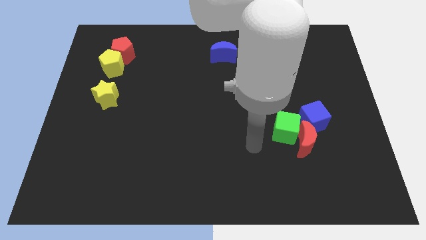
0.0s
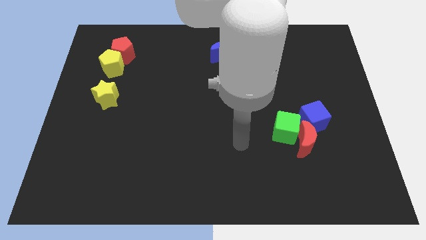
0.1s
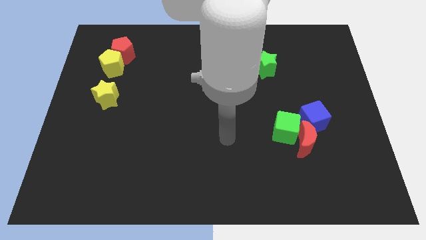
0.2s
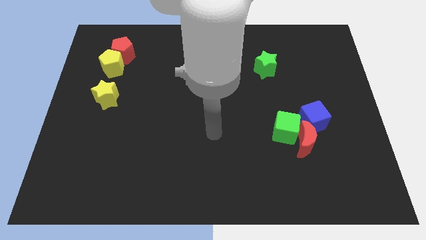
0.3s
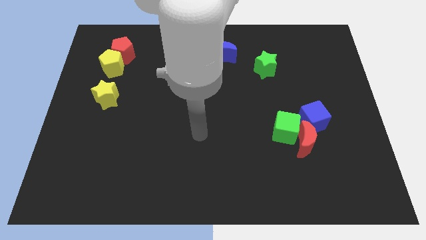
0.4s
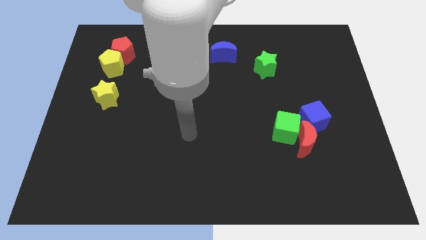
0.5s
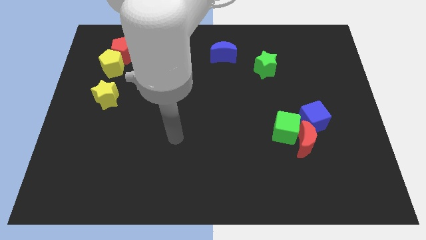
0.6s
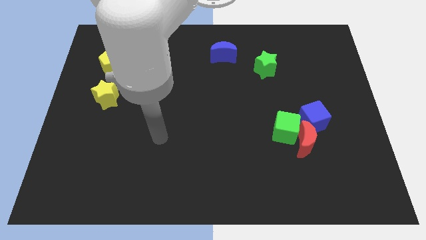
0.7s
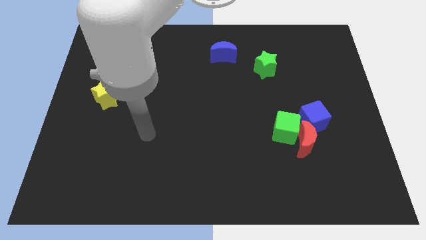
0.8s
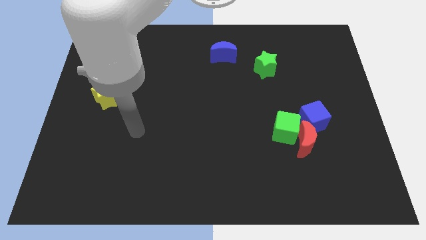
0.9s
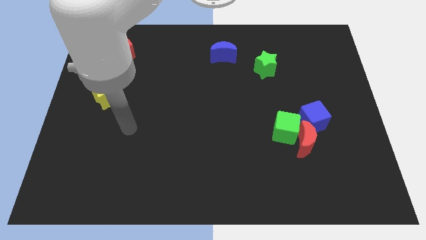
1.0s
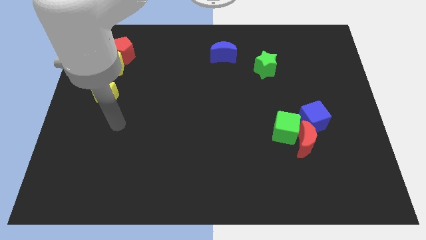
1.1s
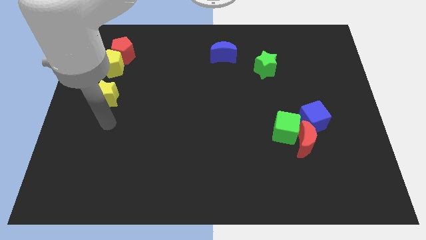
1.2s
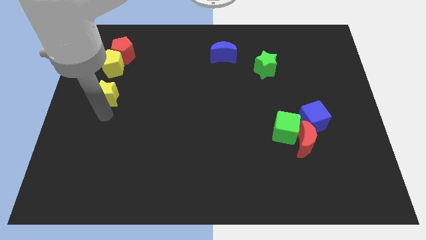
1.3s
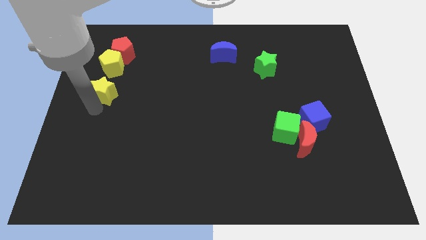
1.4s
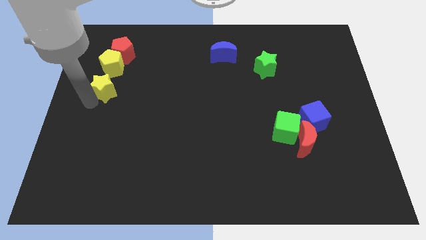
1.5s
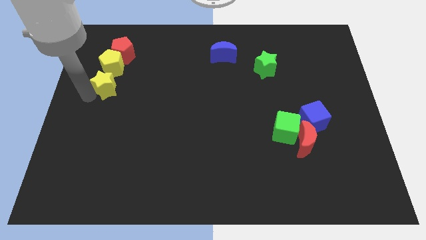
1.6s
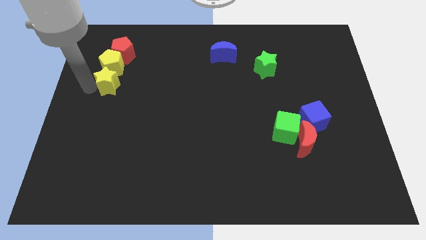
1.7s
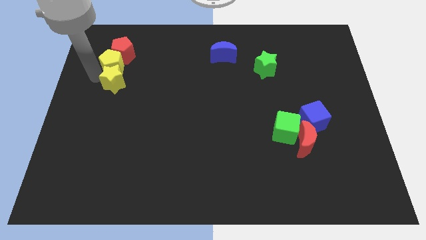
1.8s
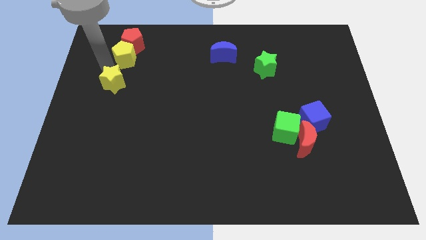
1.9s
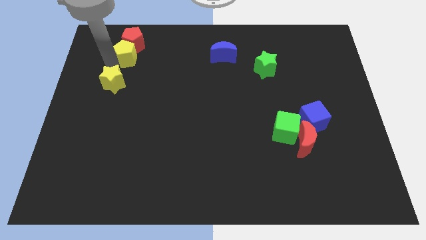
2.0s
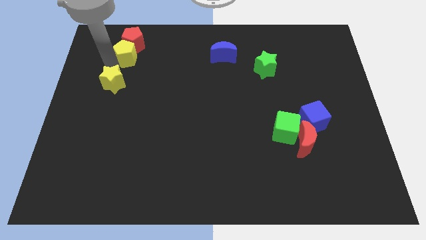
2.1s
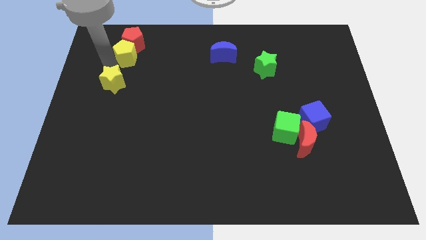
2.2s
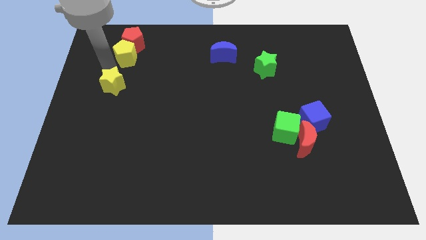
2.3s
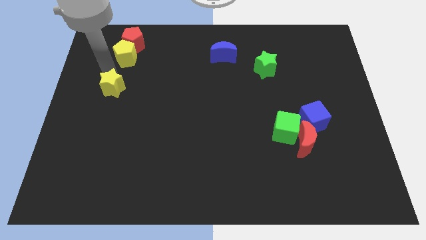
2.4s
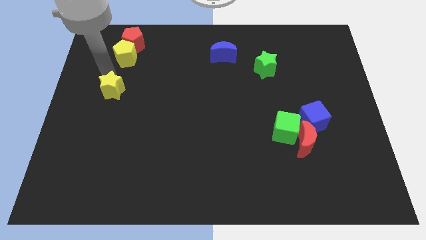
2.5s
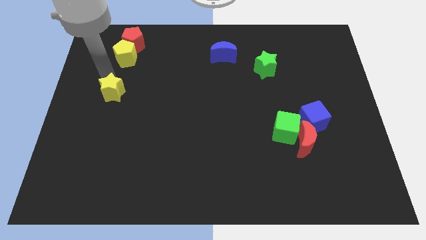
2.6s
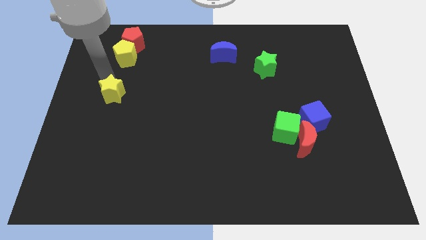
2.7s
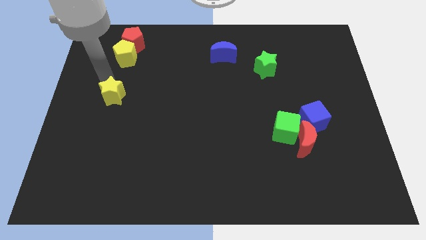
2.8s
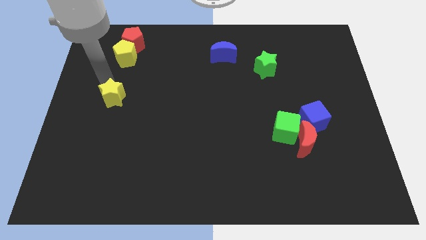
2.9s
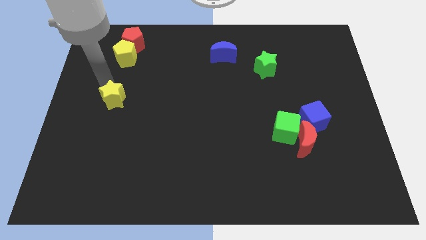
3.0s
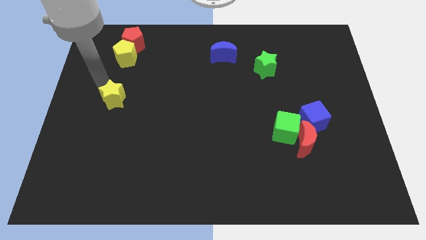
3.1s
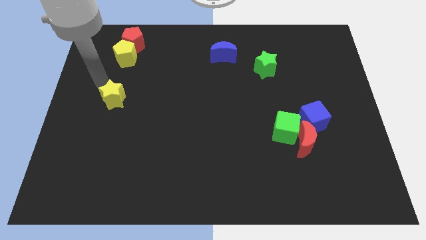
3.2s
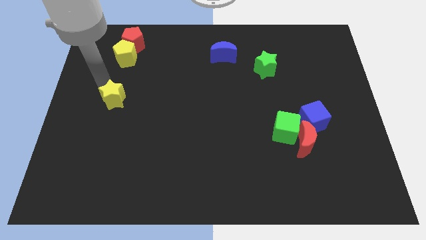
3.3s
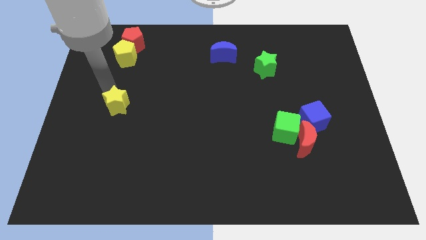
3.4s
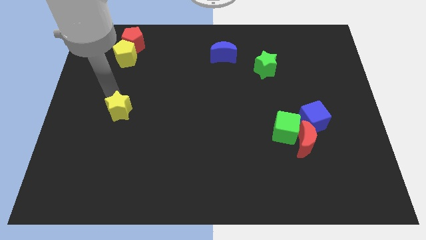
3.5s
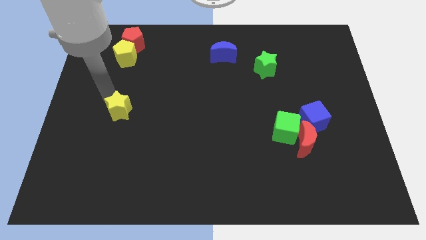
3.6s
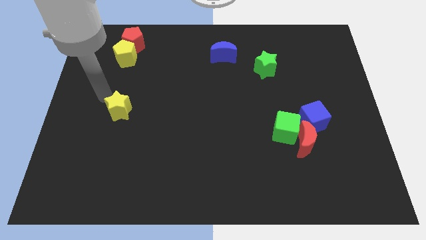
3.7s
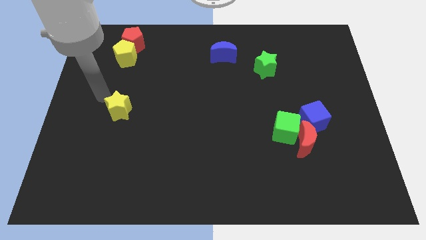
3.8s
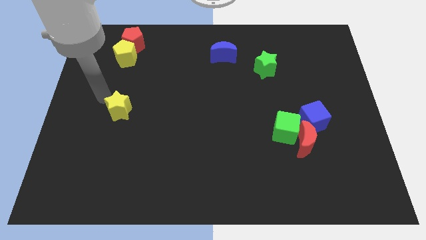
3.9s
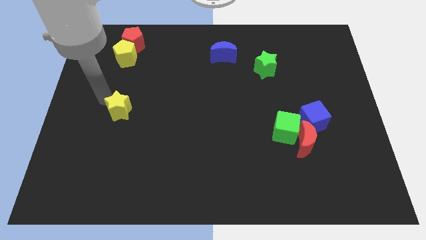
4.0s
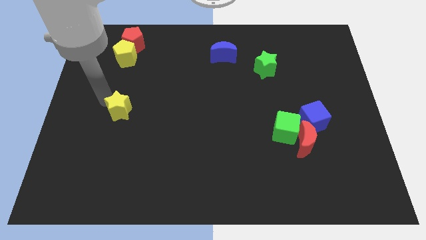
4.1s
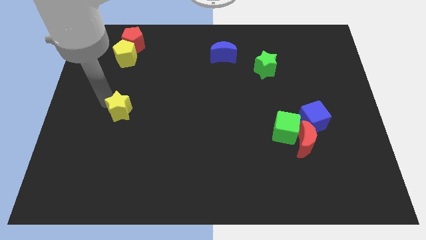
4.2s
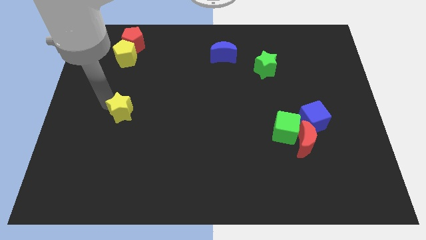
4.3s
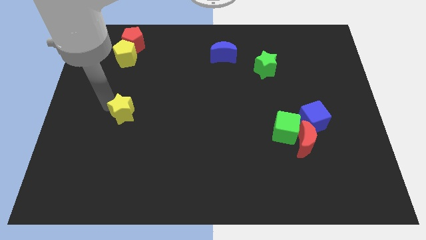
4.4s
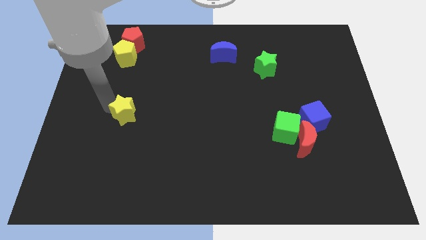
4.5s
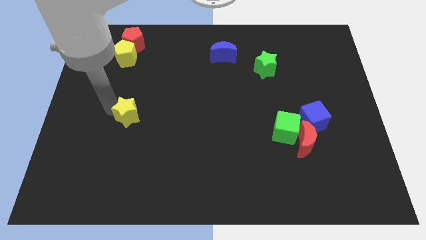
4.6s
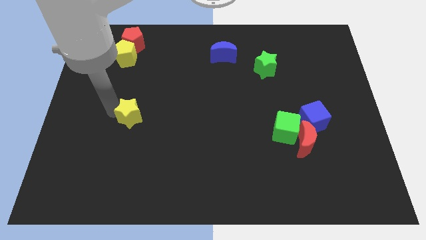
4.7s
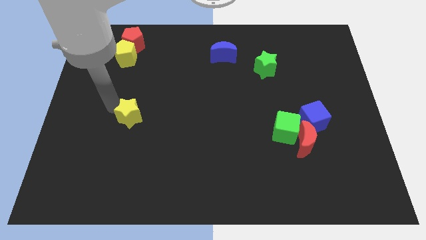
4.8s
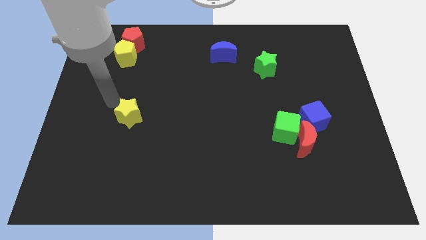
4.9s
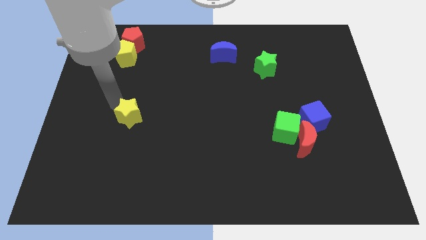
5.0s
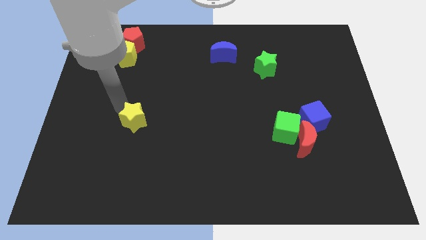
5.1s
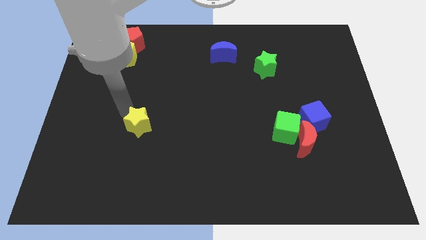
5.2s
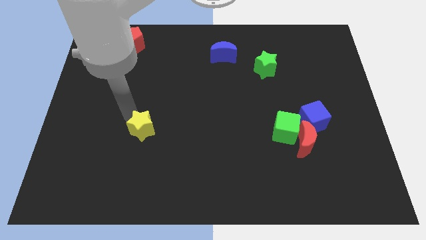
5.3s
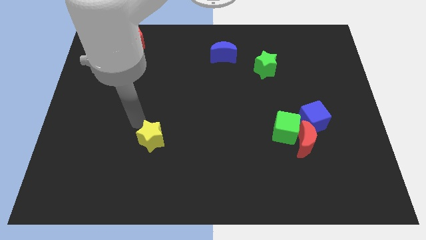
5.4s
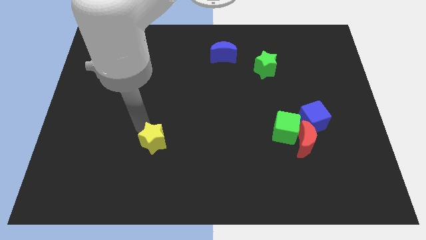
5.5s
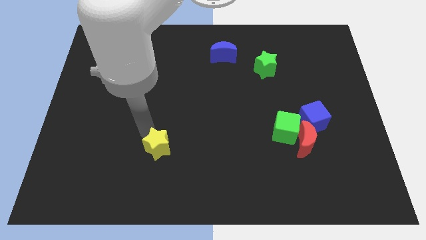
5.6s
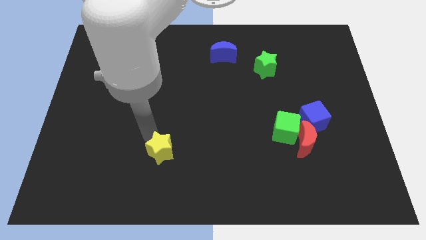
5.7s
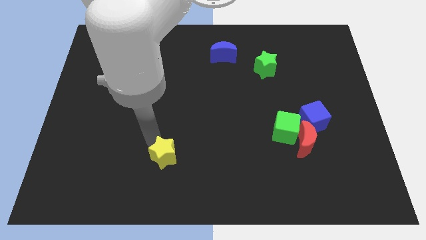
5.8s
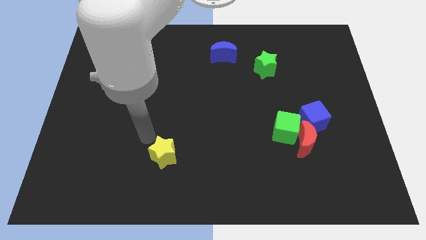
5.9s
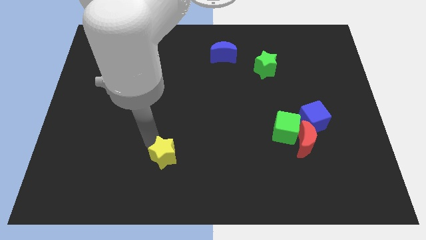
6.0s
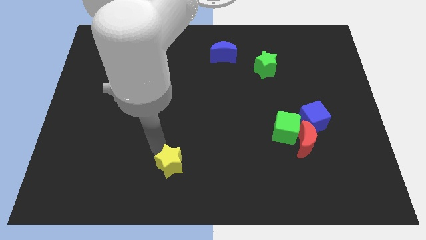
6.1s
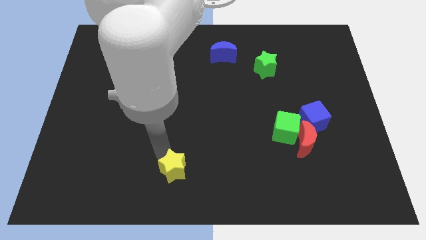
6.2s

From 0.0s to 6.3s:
move the yellow star to the bottom

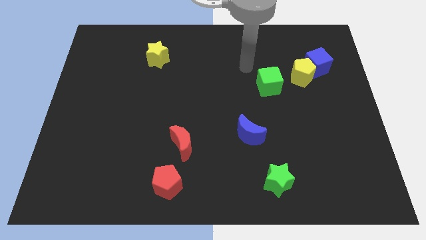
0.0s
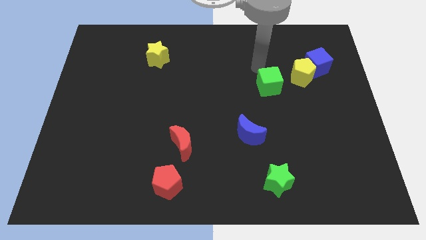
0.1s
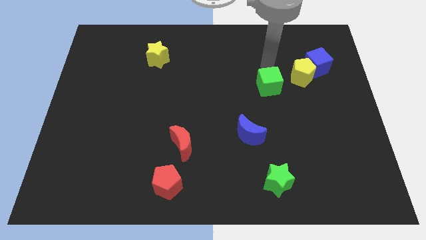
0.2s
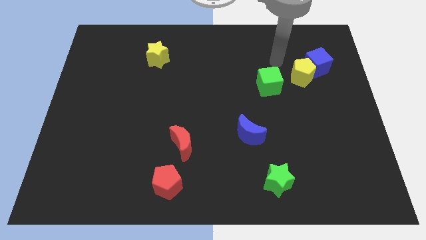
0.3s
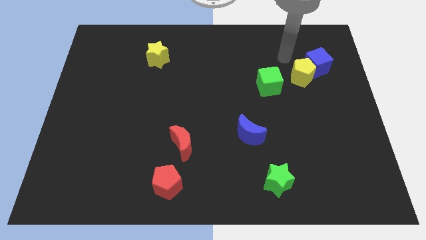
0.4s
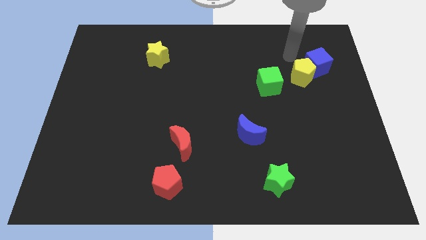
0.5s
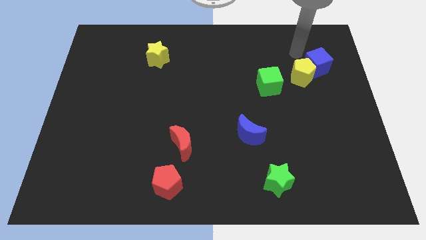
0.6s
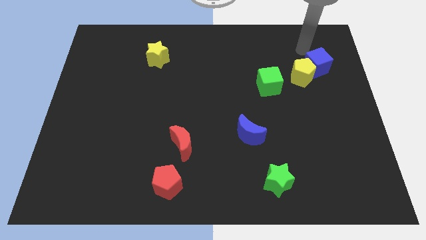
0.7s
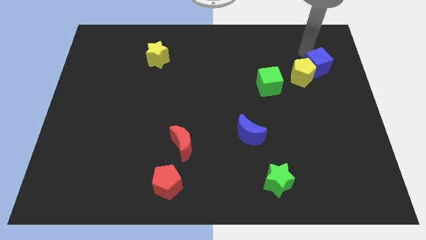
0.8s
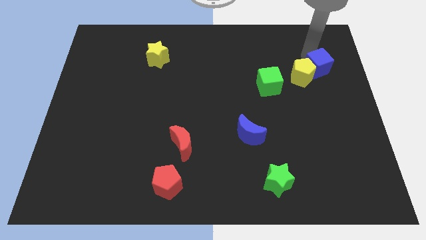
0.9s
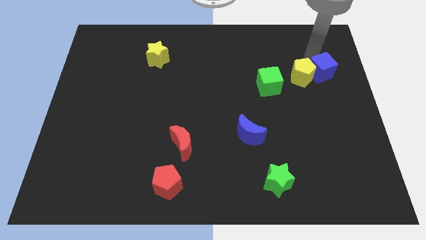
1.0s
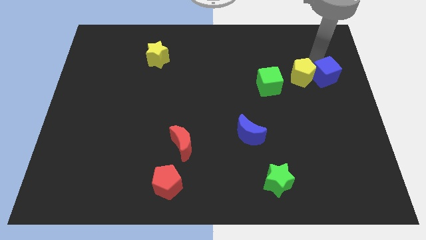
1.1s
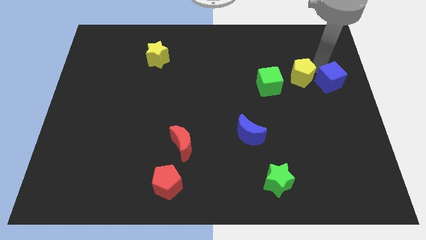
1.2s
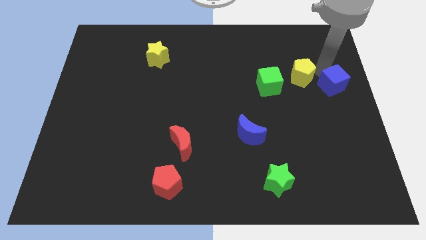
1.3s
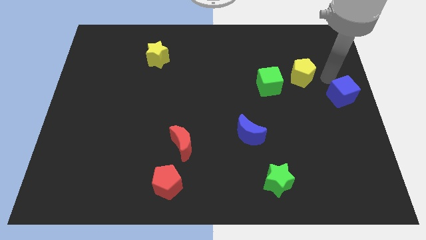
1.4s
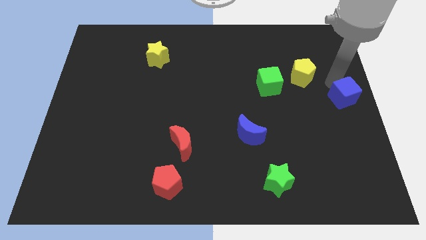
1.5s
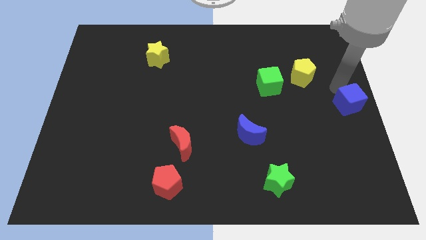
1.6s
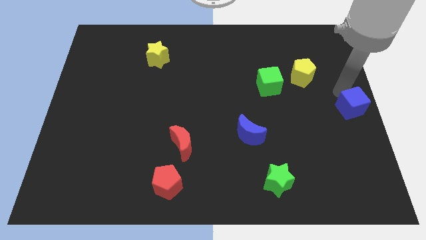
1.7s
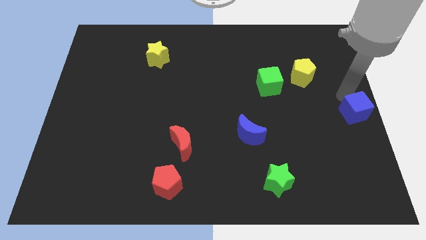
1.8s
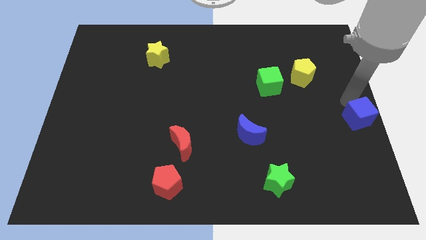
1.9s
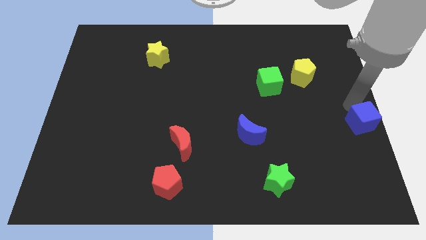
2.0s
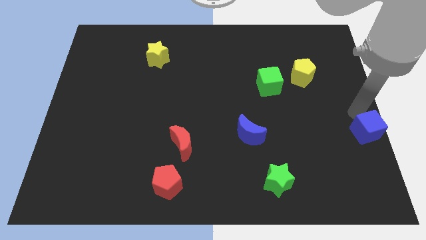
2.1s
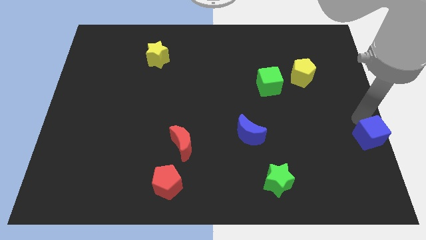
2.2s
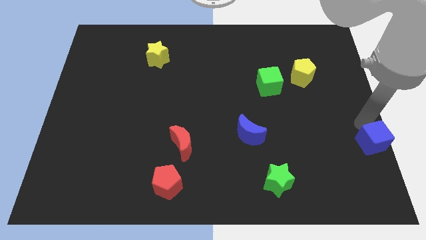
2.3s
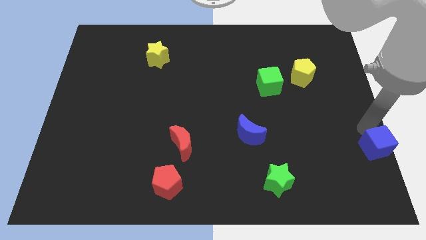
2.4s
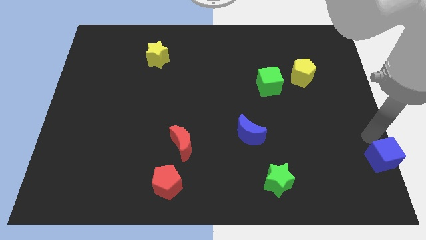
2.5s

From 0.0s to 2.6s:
move the blue cube to the bottom right
